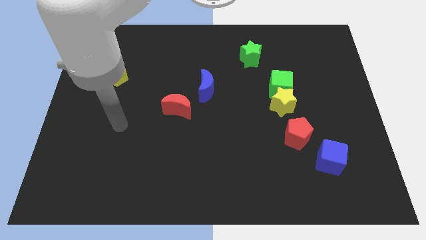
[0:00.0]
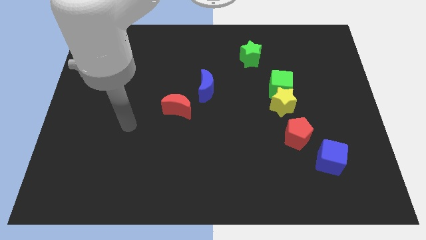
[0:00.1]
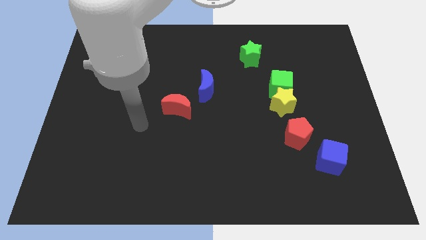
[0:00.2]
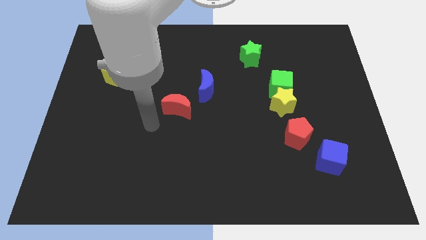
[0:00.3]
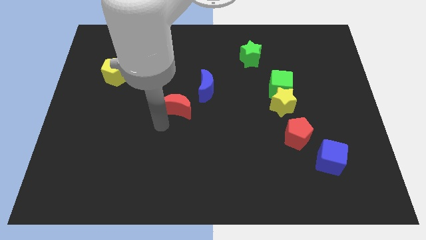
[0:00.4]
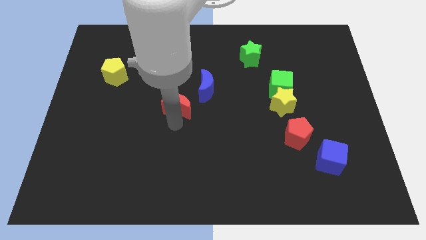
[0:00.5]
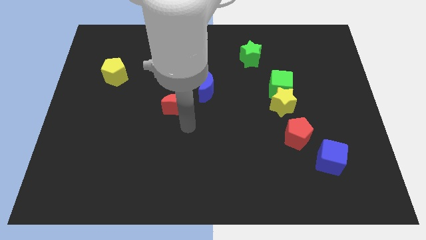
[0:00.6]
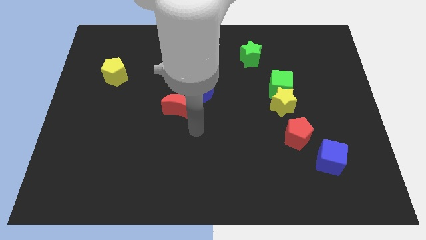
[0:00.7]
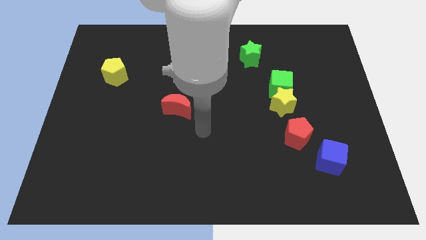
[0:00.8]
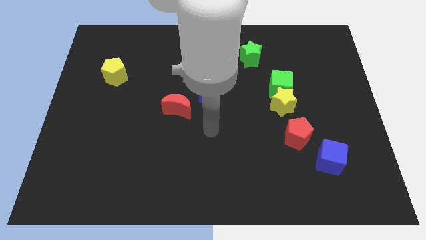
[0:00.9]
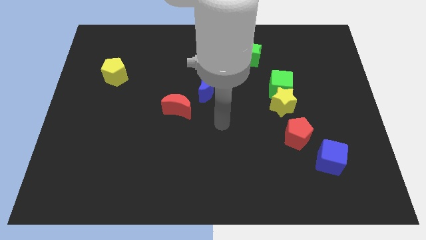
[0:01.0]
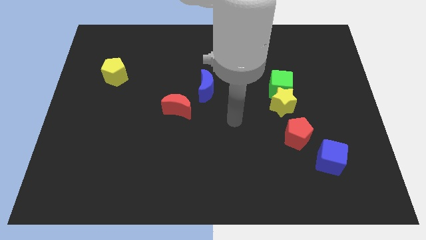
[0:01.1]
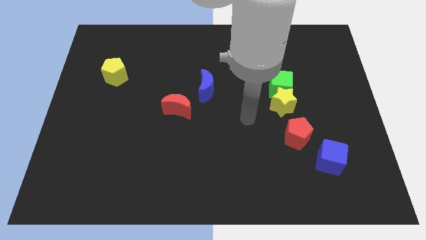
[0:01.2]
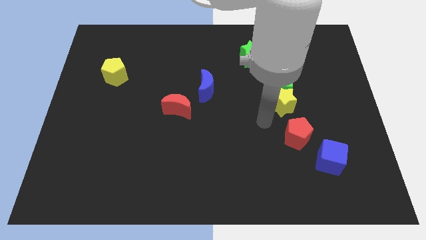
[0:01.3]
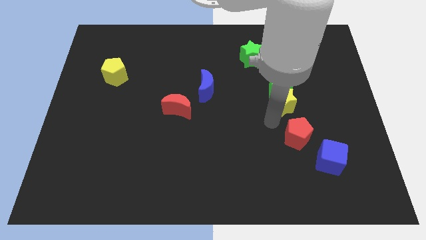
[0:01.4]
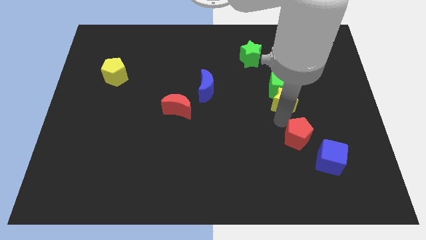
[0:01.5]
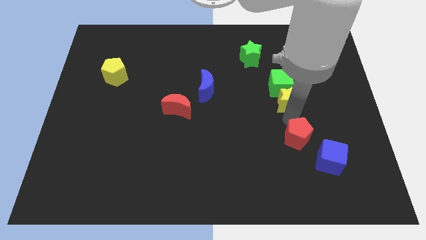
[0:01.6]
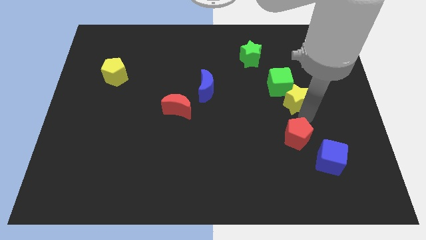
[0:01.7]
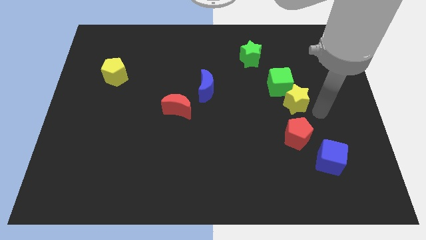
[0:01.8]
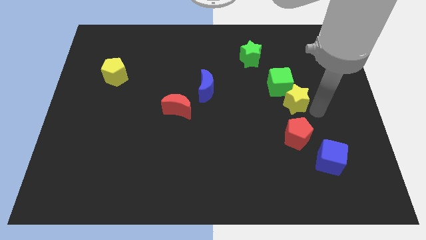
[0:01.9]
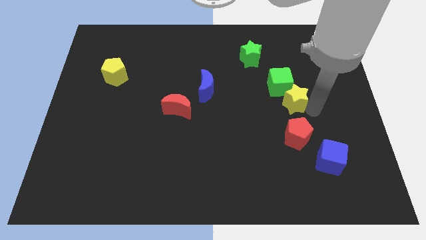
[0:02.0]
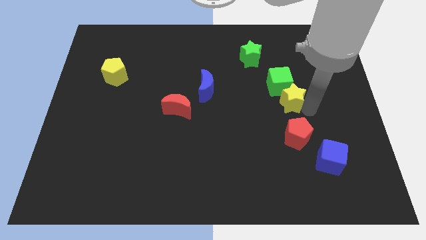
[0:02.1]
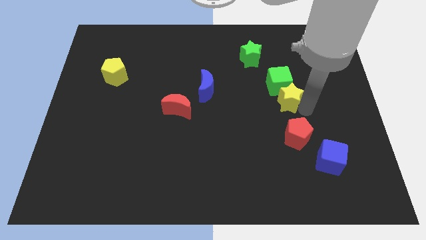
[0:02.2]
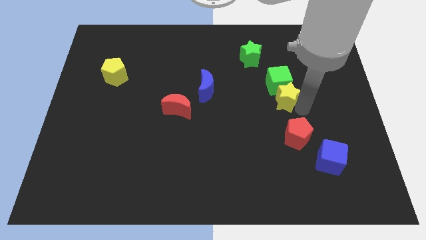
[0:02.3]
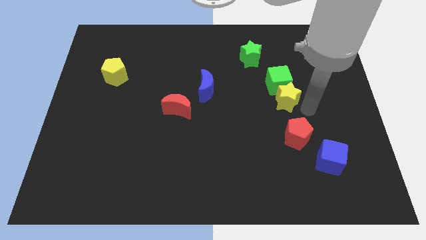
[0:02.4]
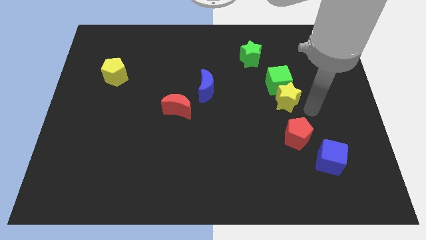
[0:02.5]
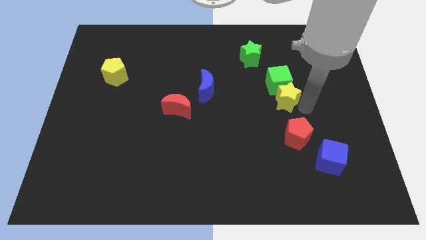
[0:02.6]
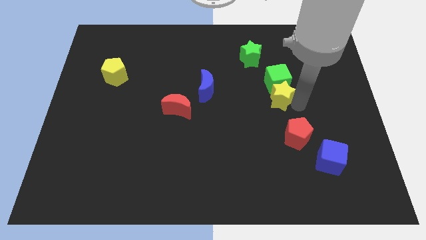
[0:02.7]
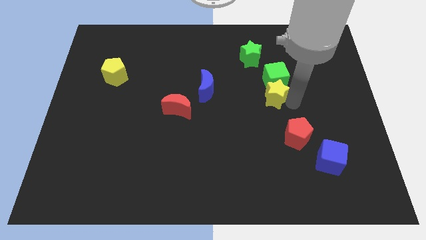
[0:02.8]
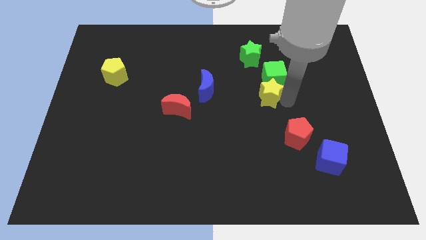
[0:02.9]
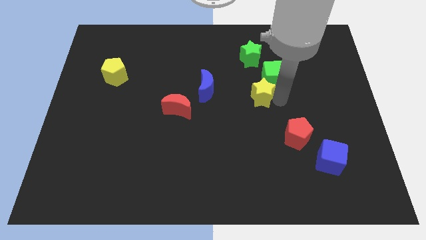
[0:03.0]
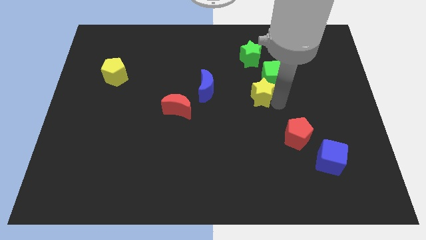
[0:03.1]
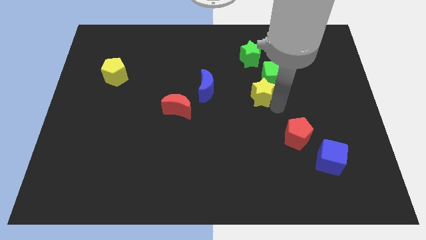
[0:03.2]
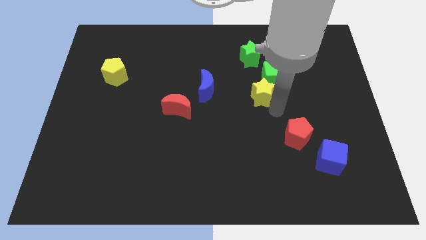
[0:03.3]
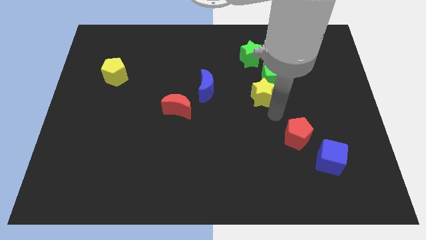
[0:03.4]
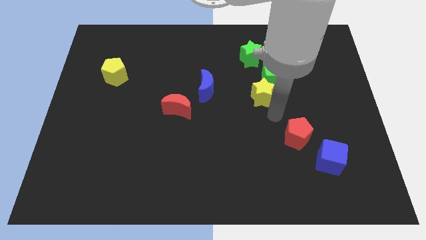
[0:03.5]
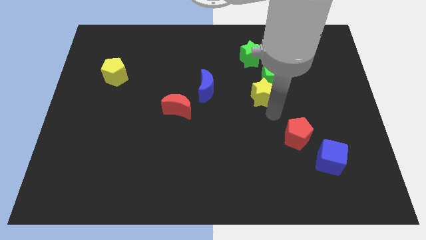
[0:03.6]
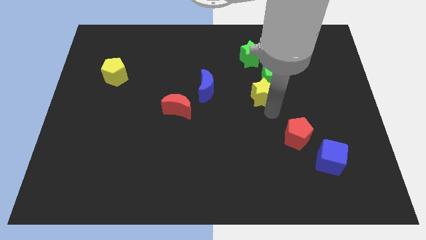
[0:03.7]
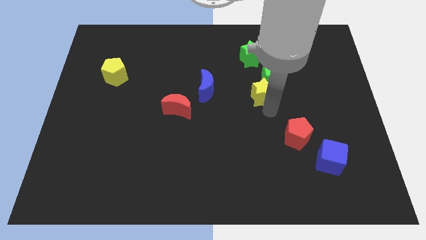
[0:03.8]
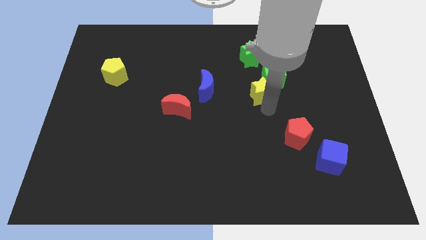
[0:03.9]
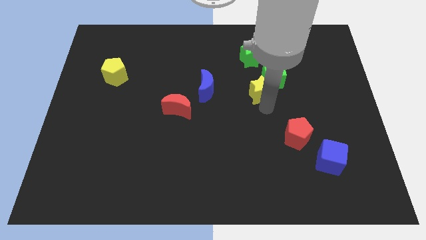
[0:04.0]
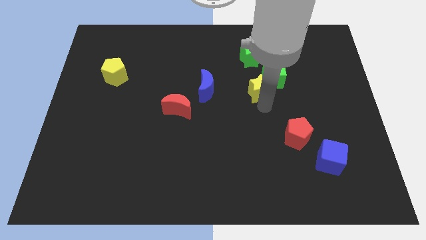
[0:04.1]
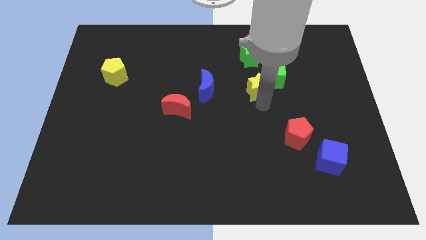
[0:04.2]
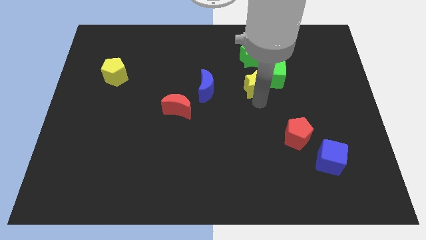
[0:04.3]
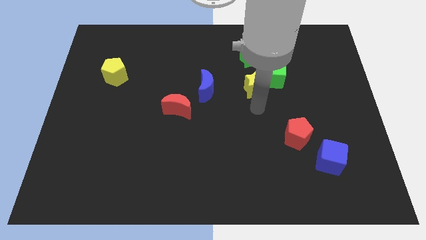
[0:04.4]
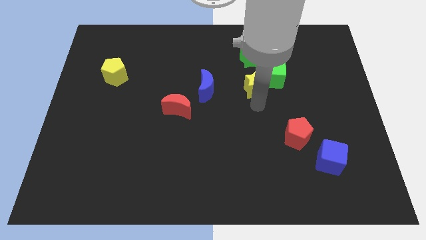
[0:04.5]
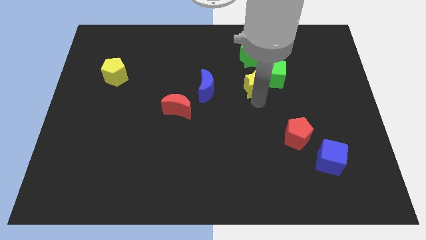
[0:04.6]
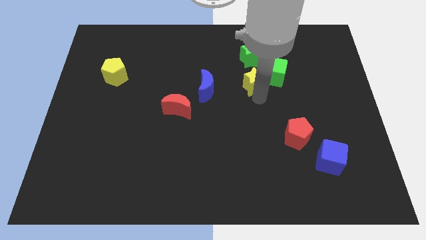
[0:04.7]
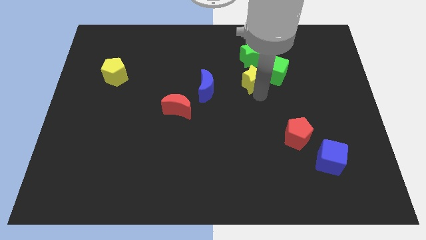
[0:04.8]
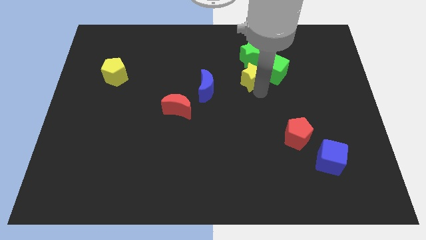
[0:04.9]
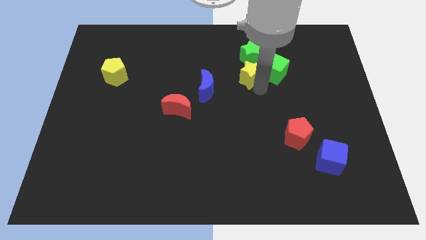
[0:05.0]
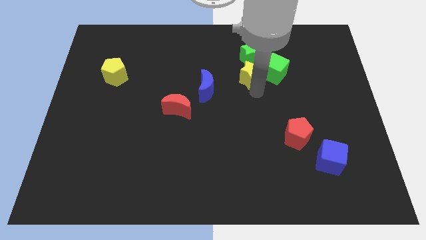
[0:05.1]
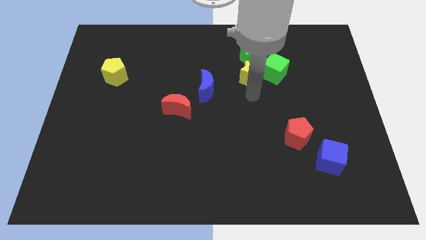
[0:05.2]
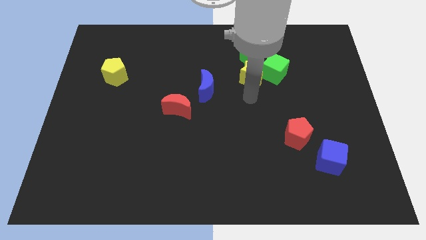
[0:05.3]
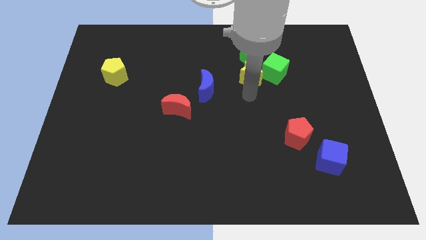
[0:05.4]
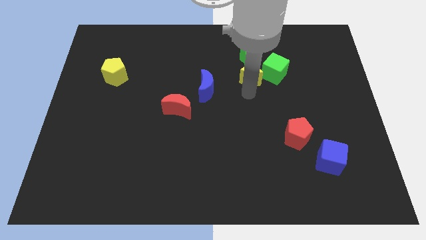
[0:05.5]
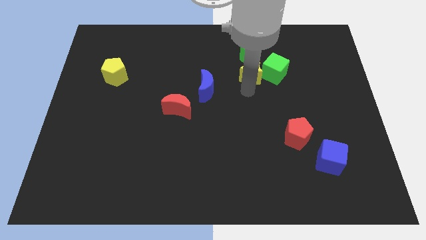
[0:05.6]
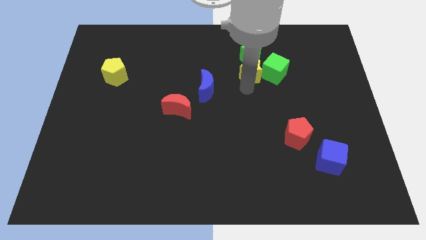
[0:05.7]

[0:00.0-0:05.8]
put the yellow star towards the green star

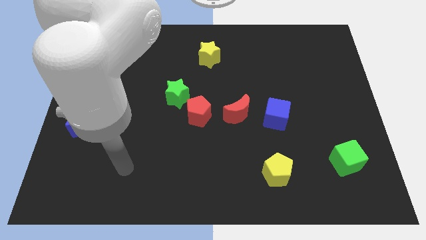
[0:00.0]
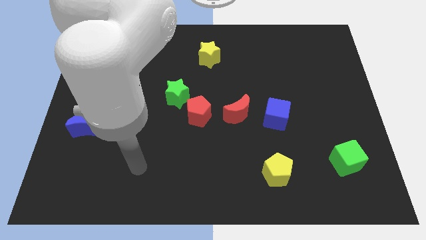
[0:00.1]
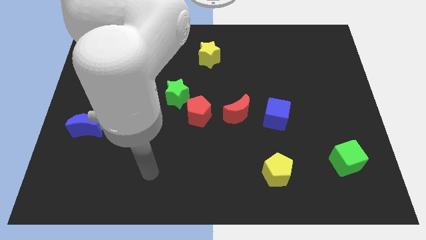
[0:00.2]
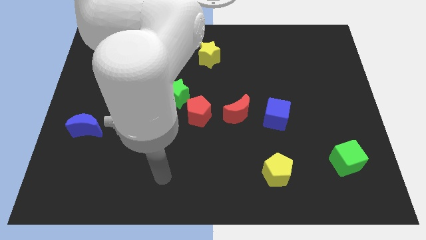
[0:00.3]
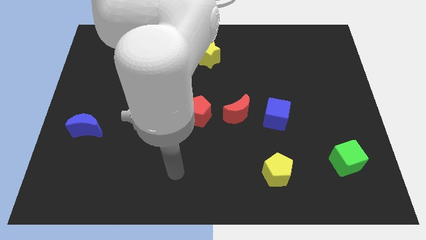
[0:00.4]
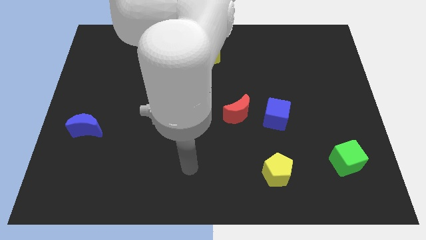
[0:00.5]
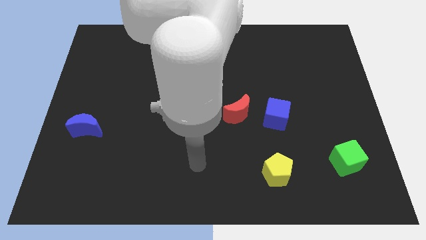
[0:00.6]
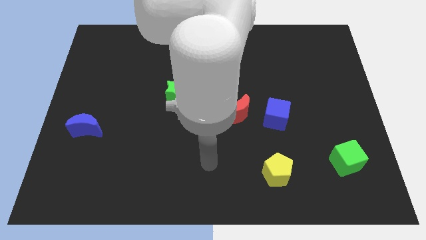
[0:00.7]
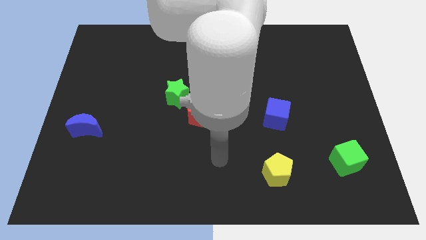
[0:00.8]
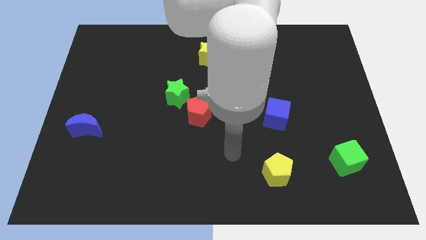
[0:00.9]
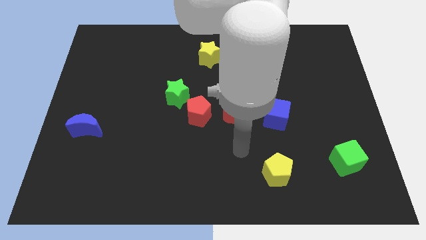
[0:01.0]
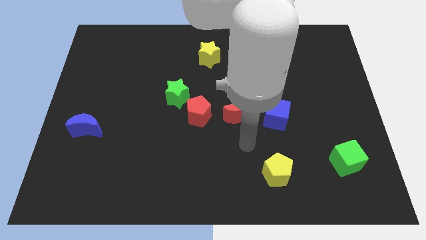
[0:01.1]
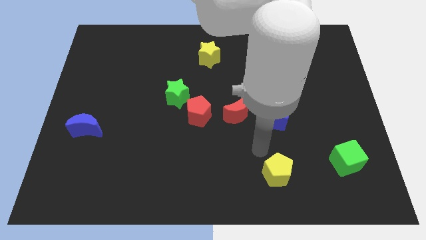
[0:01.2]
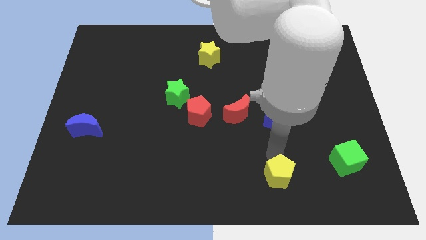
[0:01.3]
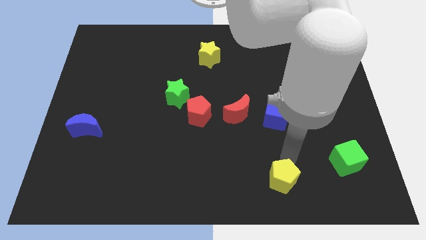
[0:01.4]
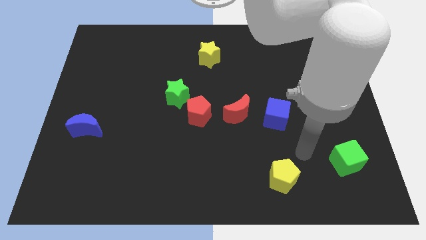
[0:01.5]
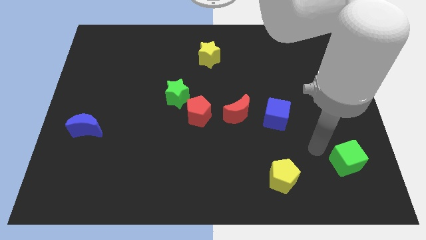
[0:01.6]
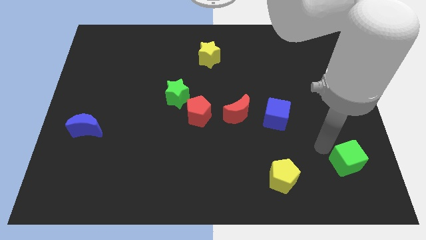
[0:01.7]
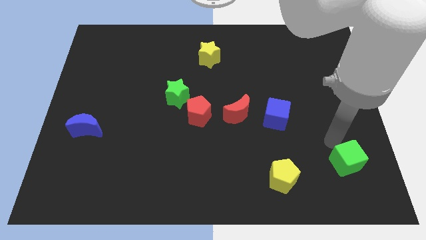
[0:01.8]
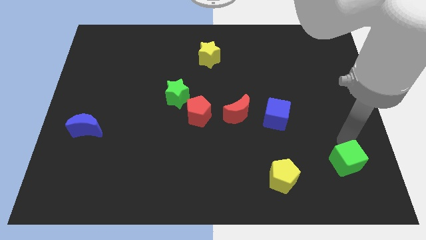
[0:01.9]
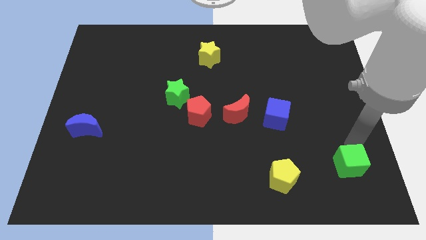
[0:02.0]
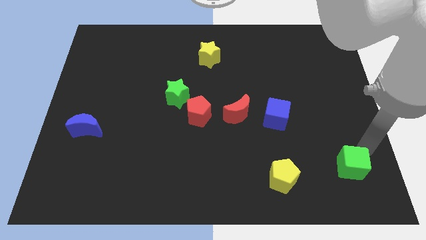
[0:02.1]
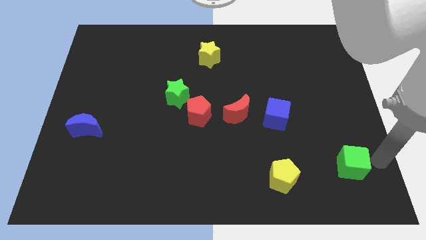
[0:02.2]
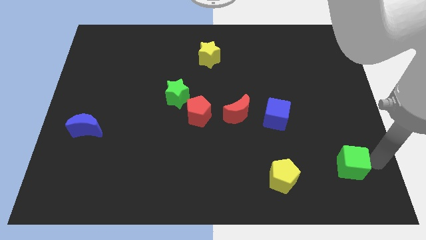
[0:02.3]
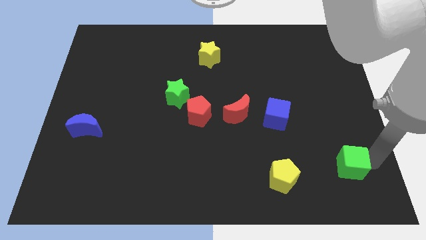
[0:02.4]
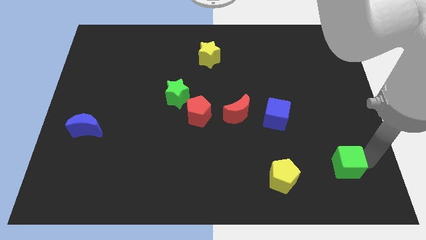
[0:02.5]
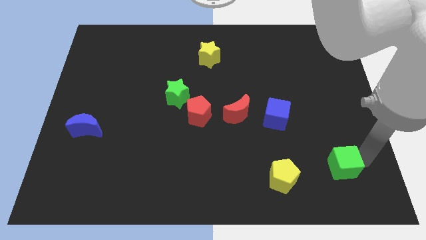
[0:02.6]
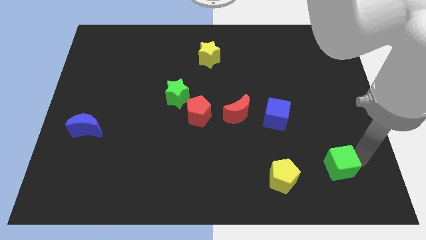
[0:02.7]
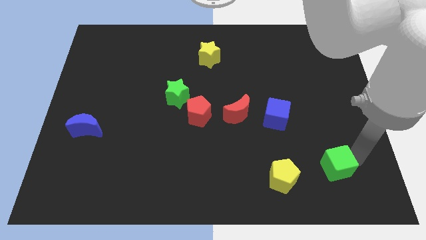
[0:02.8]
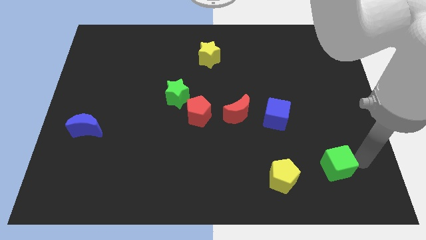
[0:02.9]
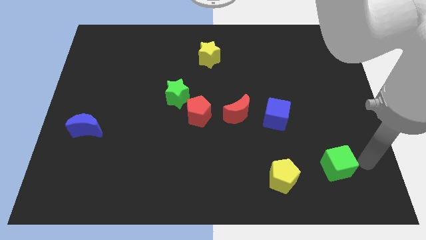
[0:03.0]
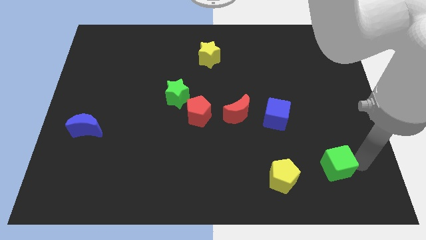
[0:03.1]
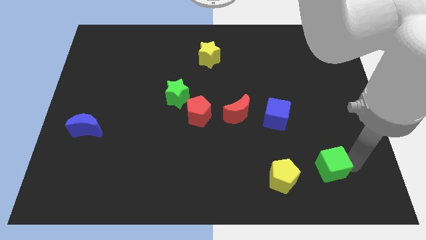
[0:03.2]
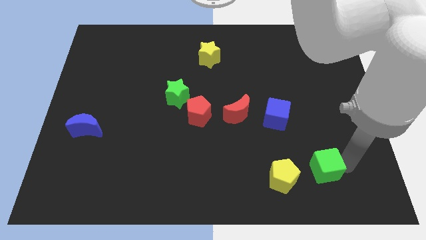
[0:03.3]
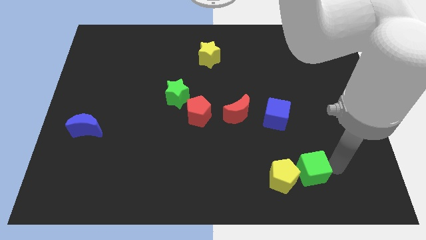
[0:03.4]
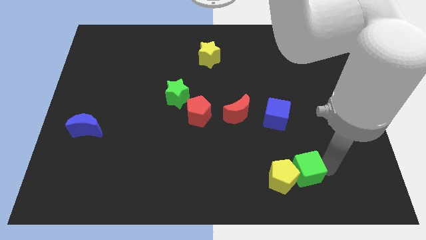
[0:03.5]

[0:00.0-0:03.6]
put the green cube to the yellow pentagon
